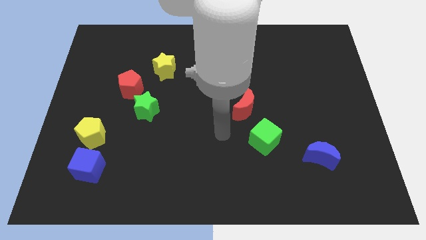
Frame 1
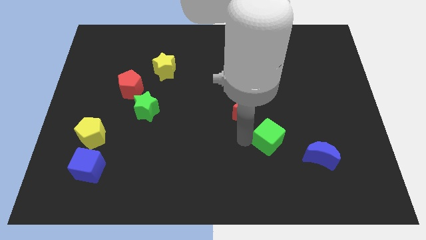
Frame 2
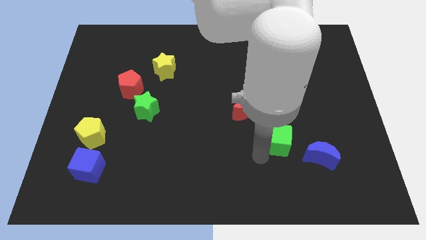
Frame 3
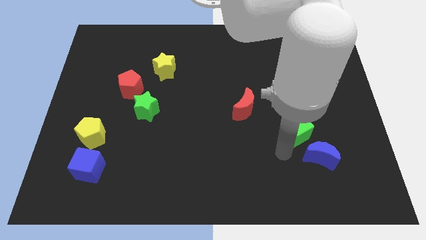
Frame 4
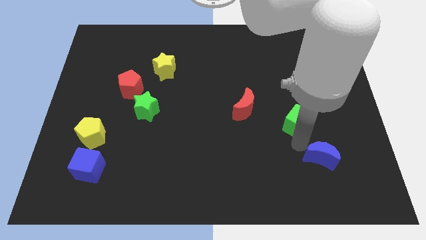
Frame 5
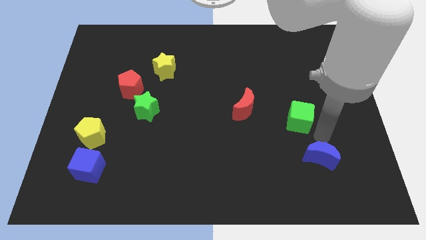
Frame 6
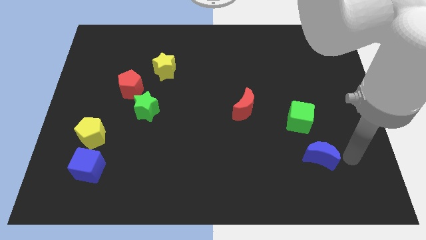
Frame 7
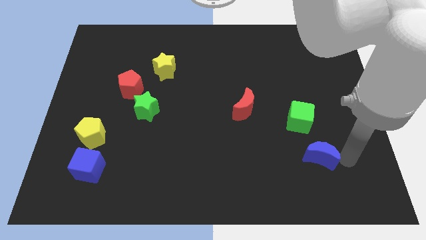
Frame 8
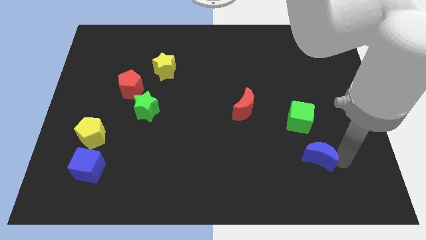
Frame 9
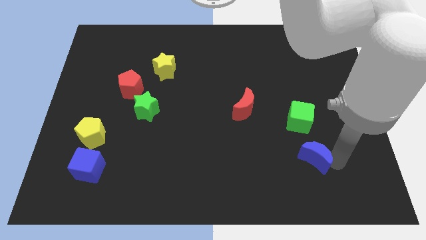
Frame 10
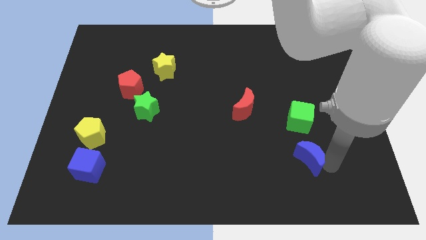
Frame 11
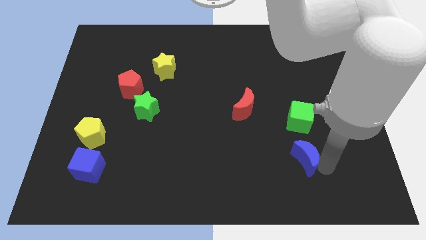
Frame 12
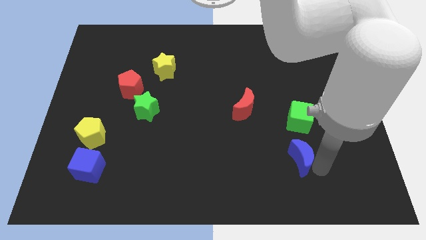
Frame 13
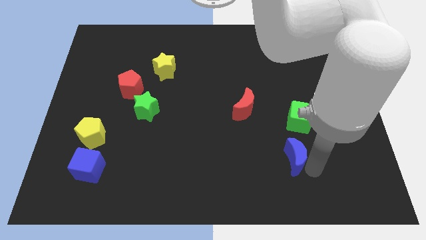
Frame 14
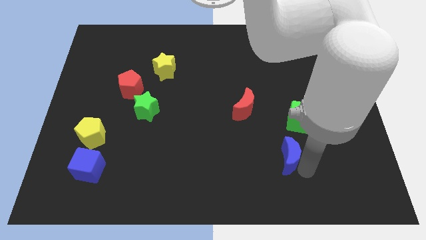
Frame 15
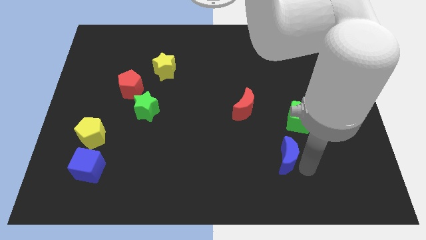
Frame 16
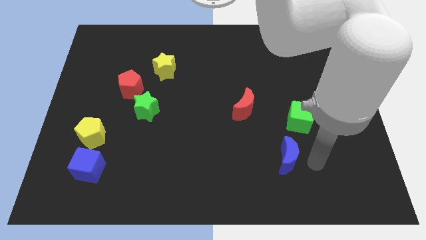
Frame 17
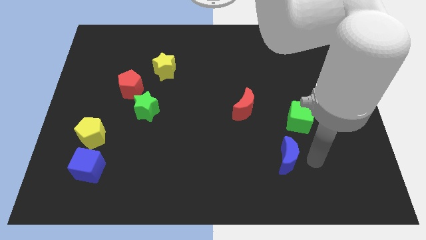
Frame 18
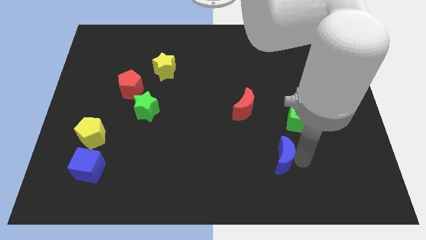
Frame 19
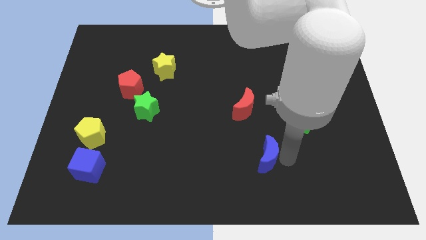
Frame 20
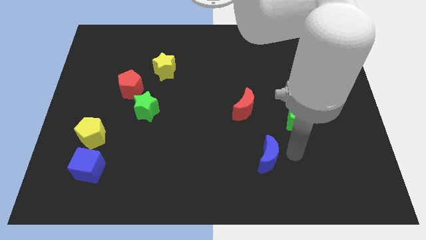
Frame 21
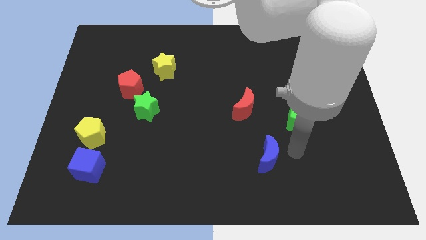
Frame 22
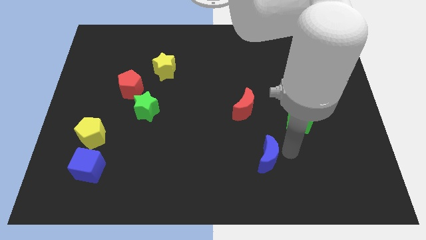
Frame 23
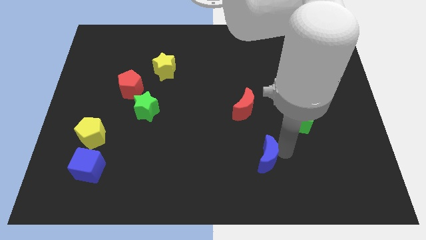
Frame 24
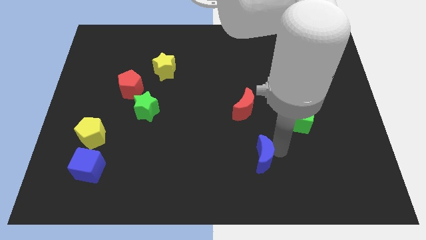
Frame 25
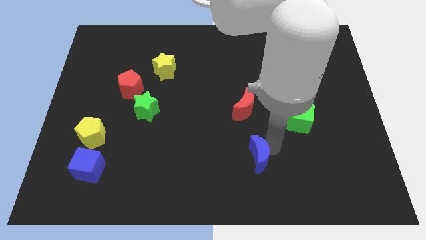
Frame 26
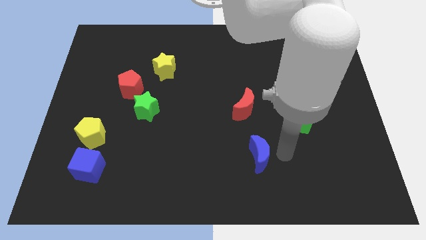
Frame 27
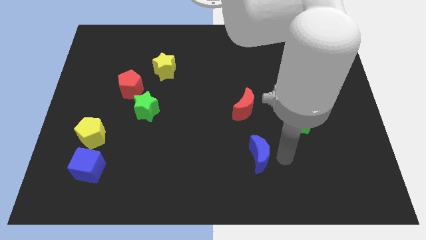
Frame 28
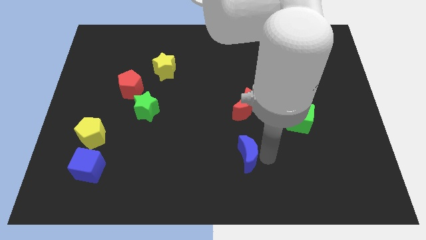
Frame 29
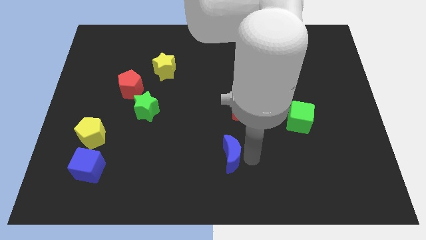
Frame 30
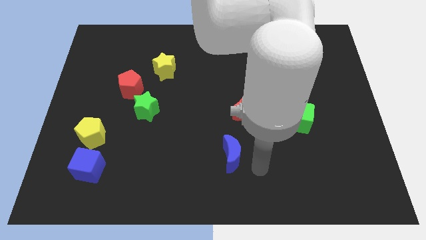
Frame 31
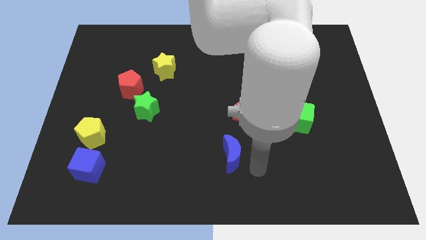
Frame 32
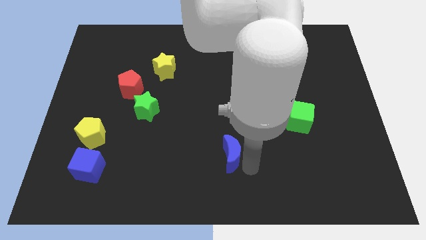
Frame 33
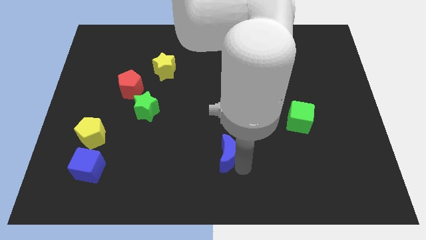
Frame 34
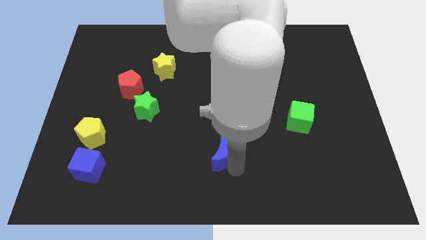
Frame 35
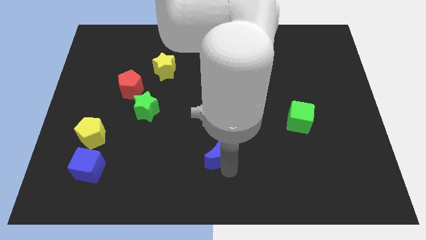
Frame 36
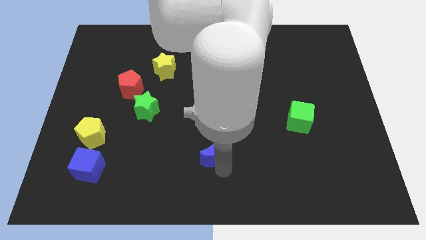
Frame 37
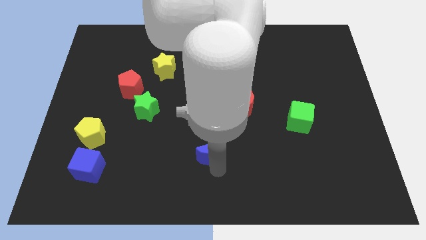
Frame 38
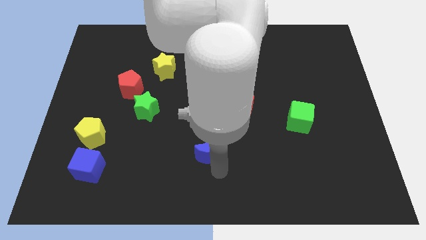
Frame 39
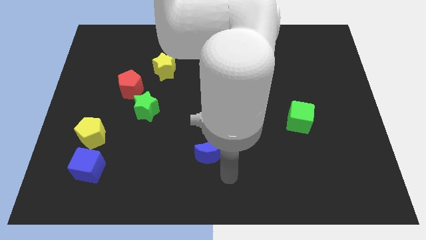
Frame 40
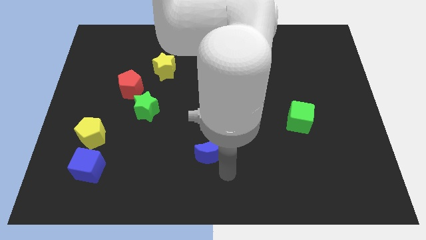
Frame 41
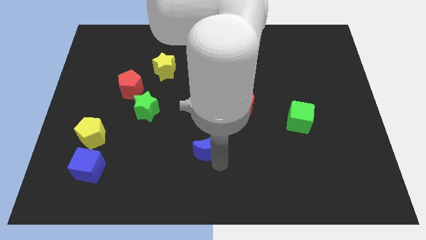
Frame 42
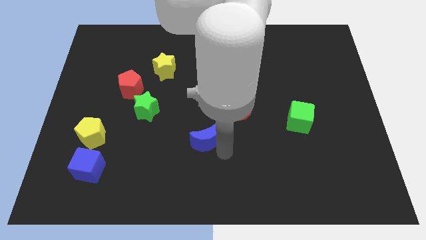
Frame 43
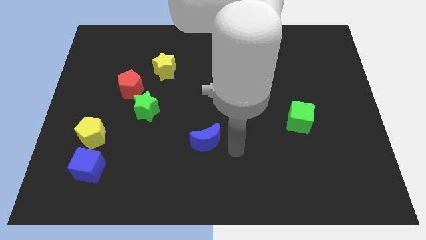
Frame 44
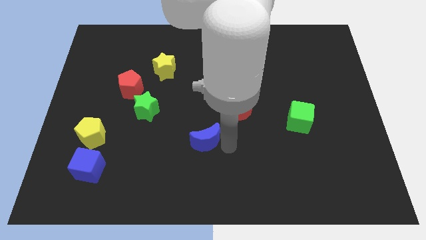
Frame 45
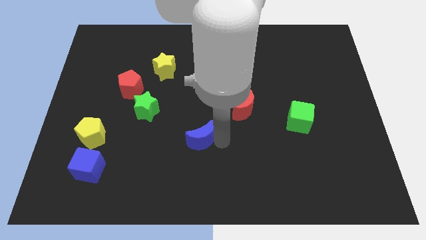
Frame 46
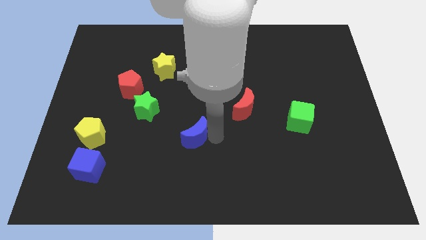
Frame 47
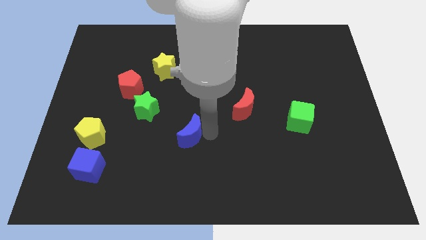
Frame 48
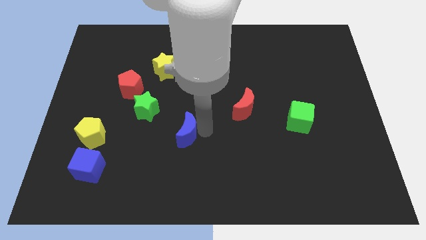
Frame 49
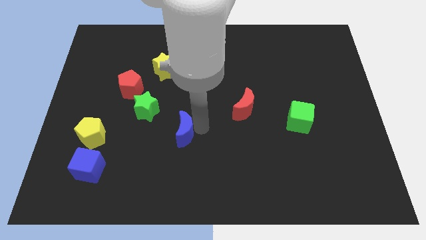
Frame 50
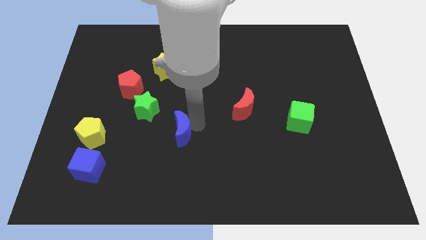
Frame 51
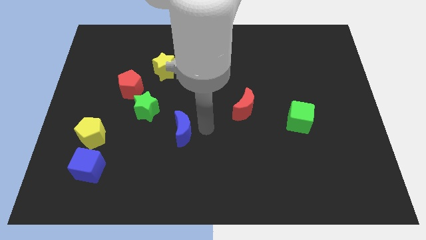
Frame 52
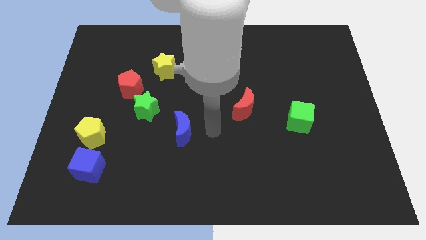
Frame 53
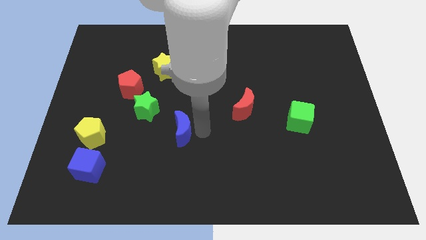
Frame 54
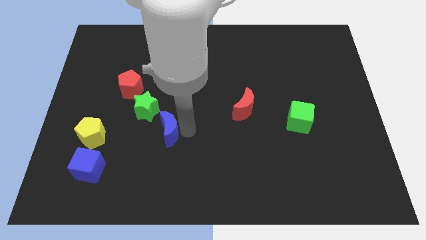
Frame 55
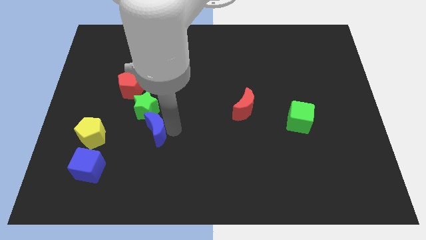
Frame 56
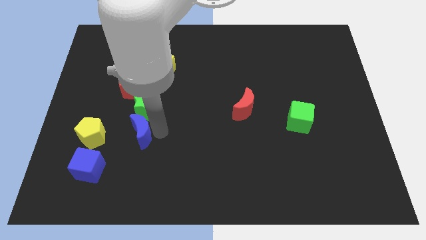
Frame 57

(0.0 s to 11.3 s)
move the blue moon to the bottom of the red pentagon

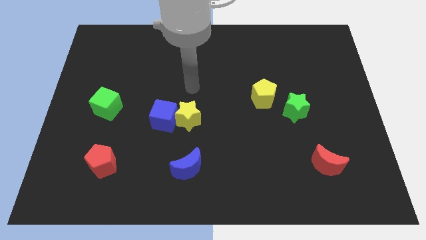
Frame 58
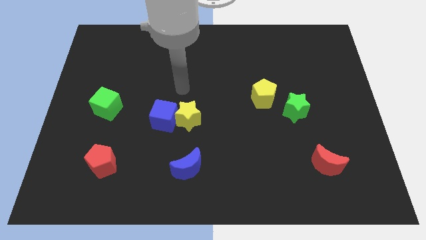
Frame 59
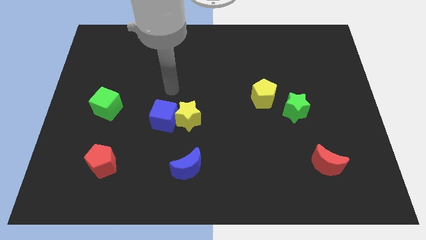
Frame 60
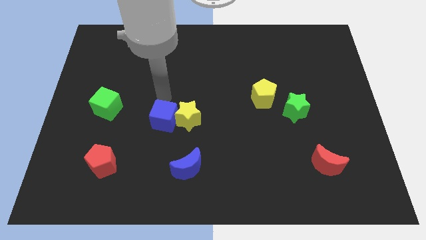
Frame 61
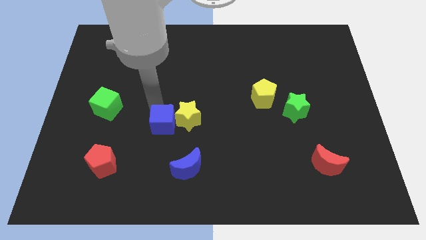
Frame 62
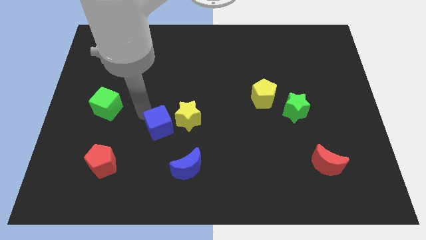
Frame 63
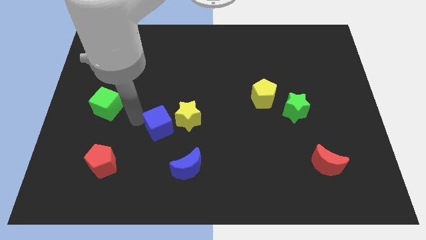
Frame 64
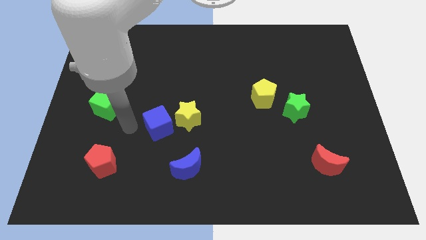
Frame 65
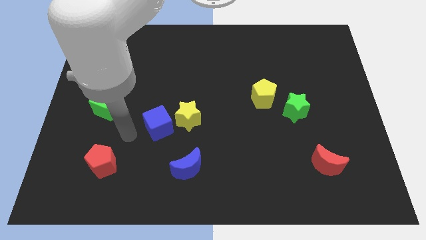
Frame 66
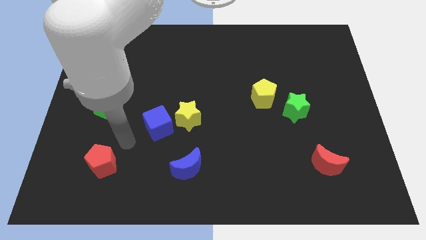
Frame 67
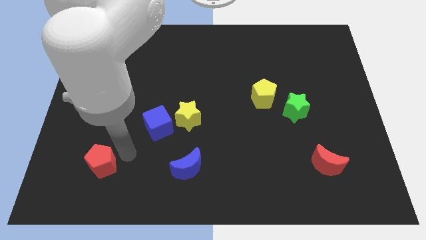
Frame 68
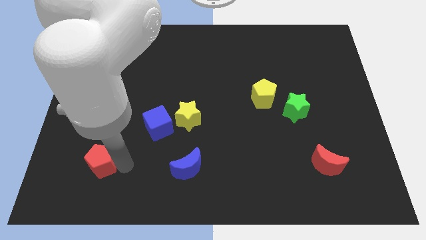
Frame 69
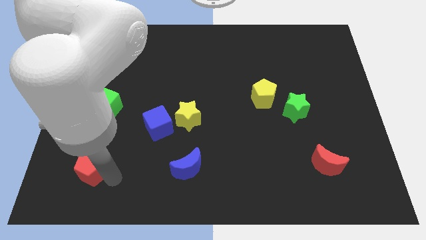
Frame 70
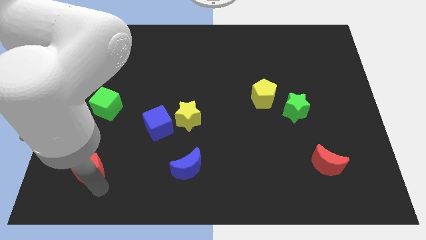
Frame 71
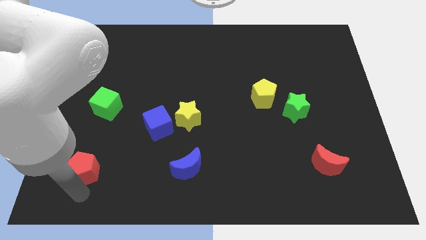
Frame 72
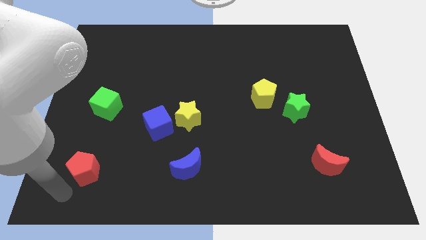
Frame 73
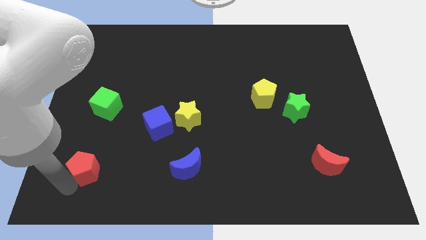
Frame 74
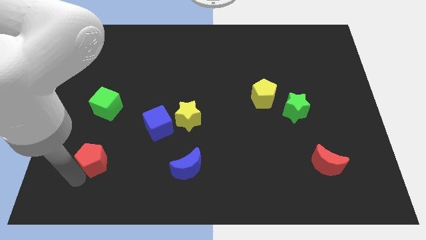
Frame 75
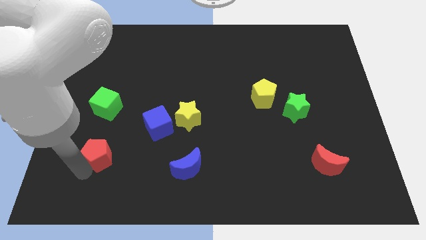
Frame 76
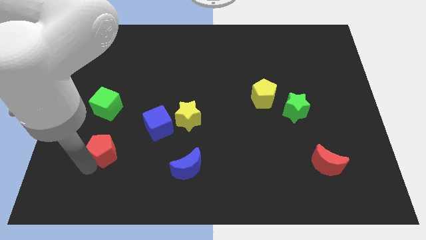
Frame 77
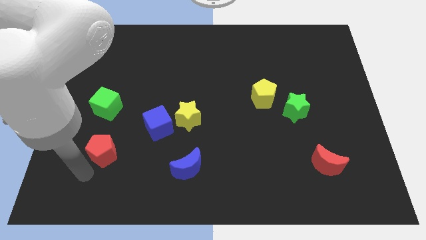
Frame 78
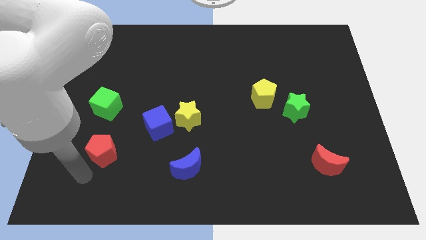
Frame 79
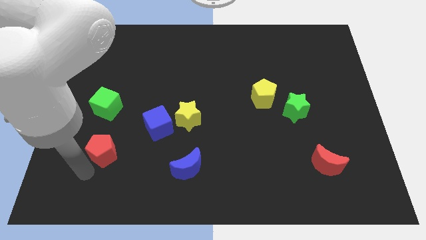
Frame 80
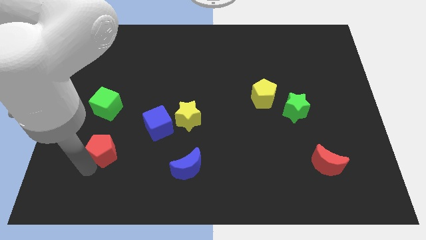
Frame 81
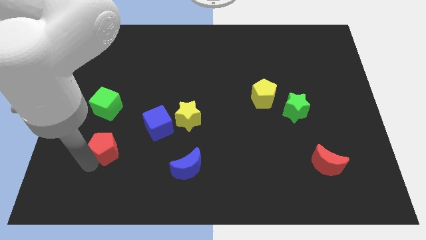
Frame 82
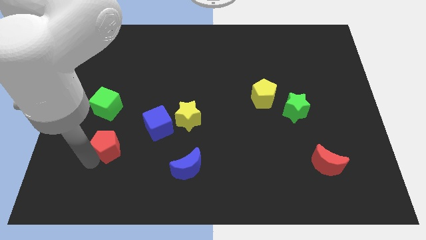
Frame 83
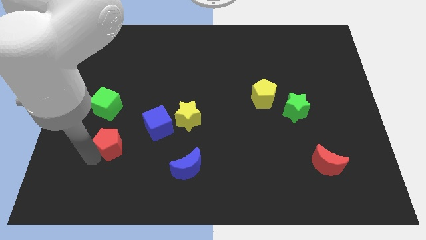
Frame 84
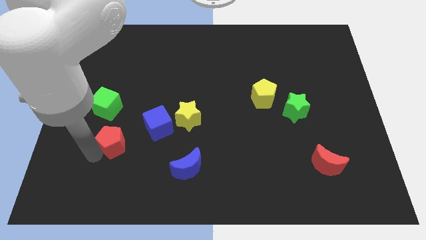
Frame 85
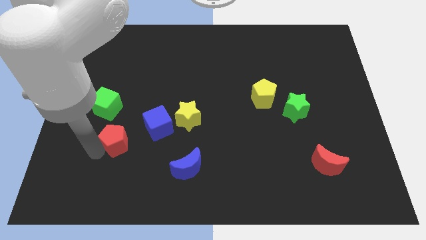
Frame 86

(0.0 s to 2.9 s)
put the red pentagon to the bottom right side of the green cube
